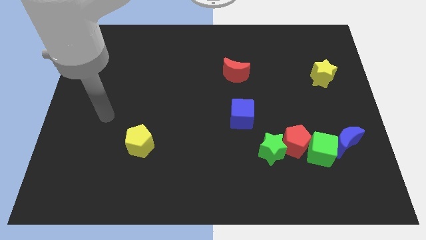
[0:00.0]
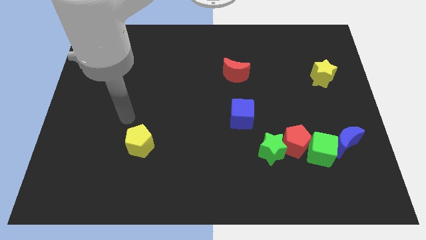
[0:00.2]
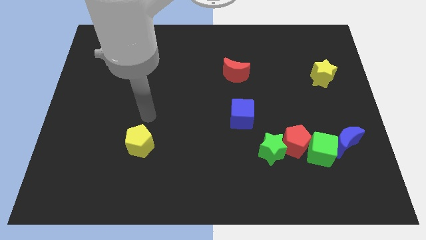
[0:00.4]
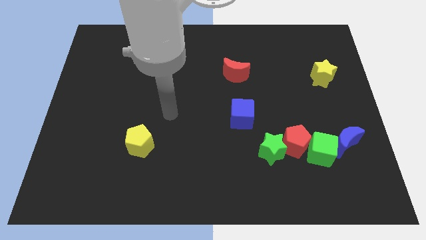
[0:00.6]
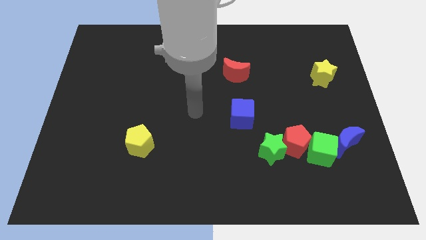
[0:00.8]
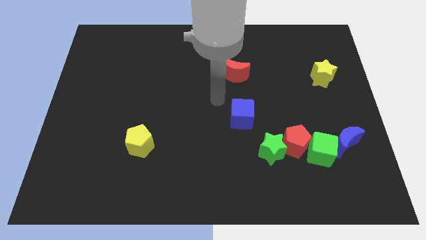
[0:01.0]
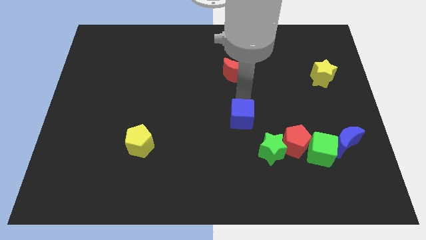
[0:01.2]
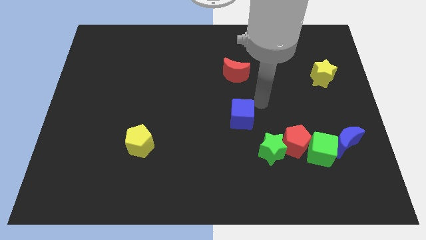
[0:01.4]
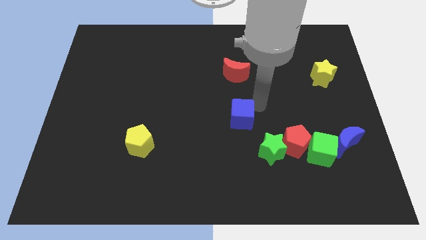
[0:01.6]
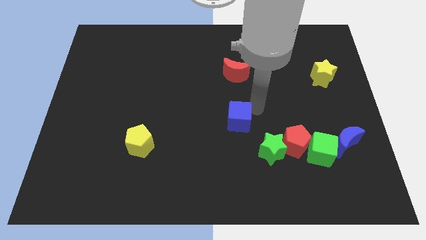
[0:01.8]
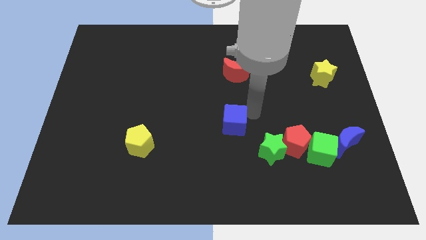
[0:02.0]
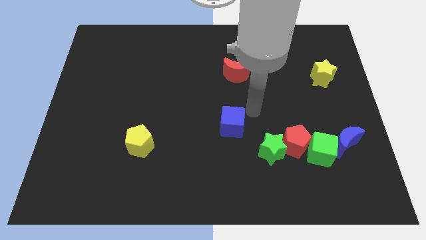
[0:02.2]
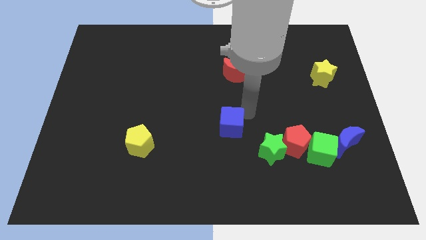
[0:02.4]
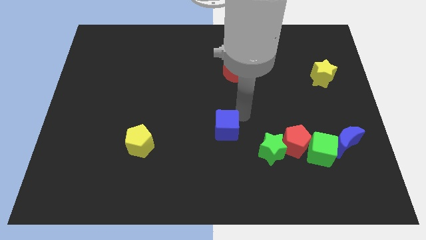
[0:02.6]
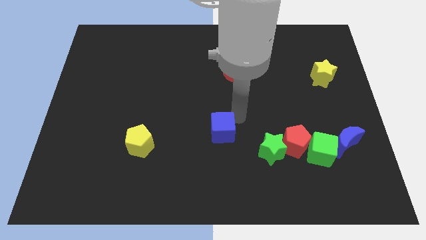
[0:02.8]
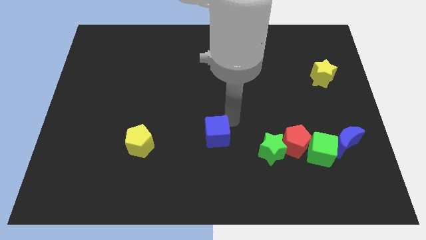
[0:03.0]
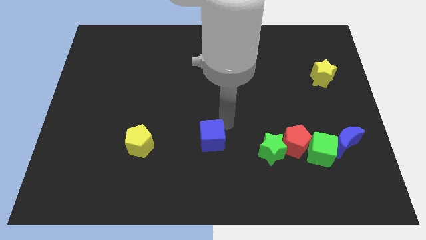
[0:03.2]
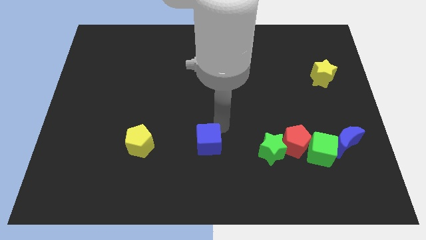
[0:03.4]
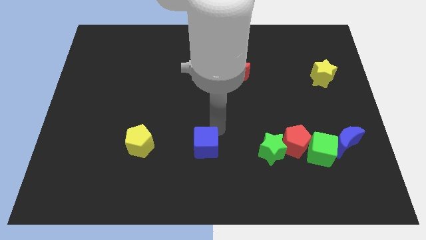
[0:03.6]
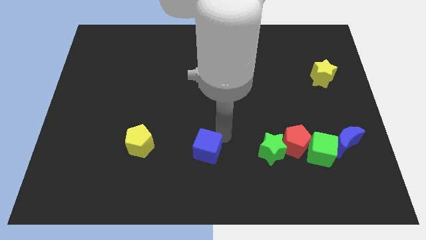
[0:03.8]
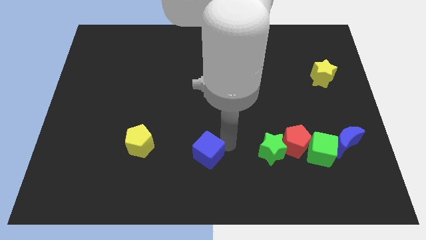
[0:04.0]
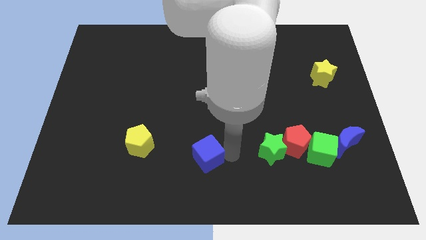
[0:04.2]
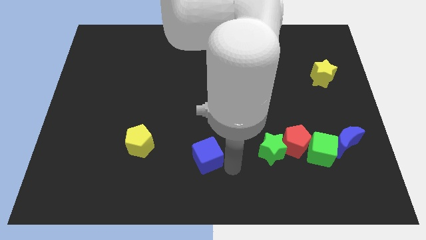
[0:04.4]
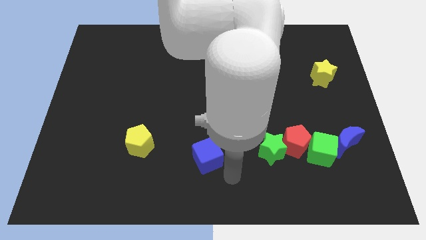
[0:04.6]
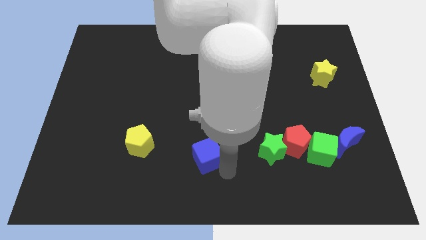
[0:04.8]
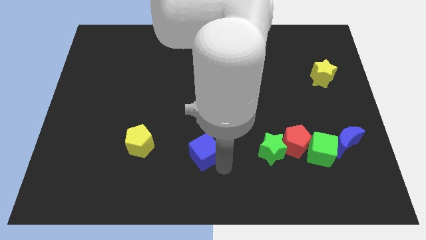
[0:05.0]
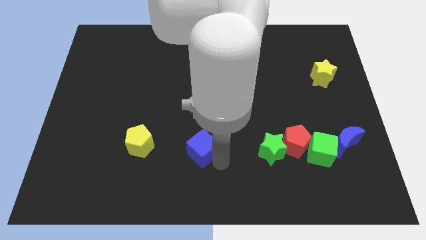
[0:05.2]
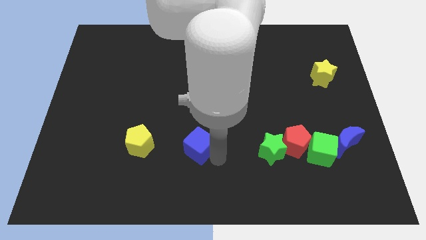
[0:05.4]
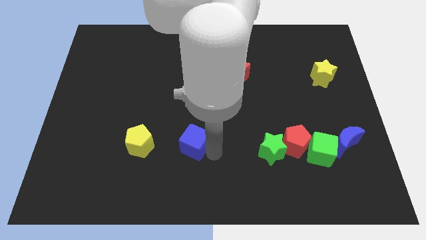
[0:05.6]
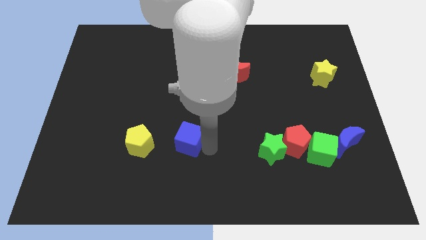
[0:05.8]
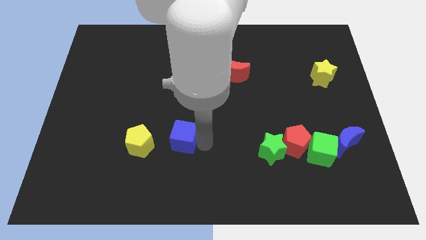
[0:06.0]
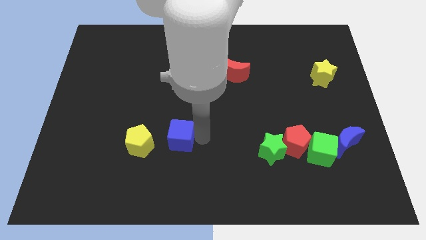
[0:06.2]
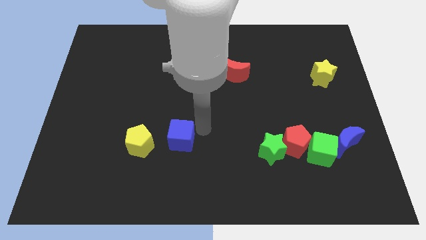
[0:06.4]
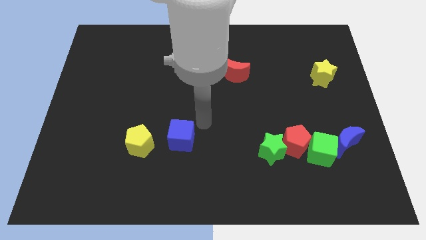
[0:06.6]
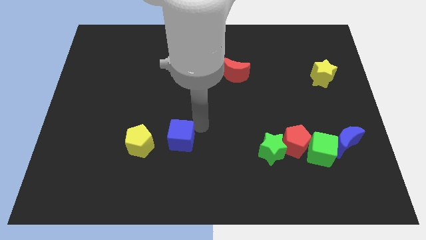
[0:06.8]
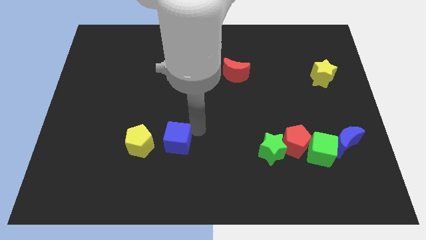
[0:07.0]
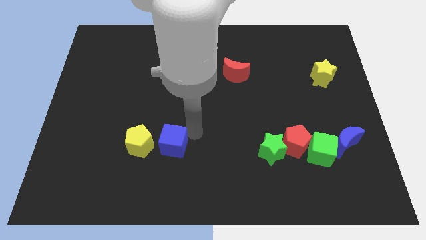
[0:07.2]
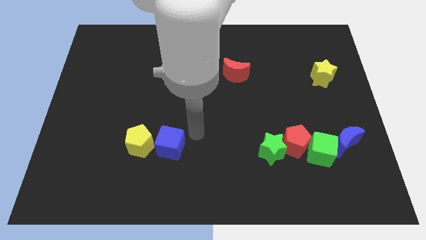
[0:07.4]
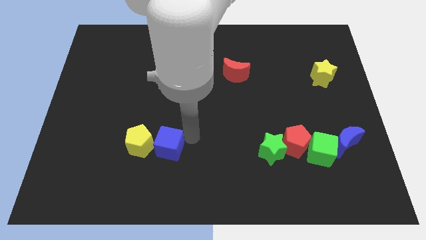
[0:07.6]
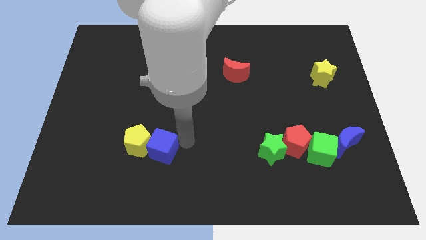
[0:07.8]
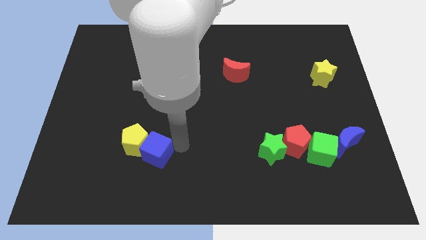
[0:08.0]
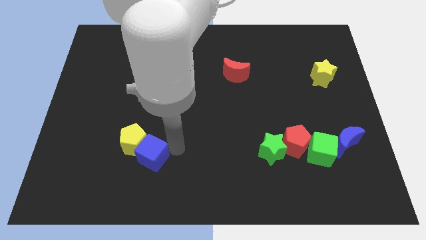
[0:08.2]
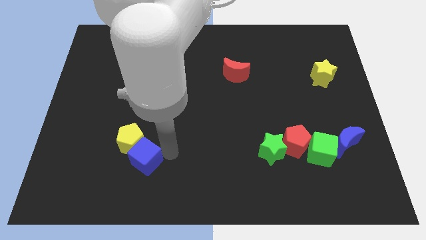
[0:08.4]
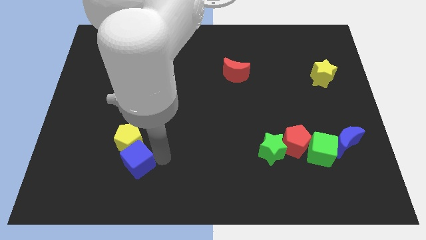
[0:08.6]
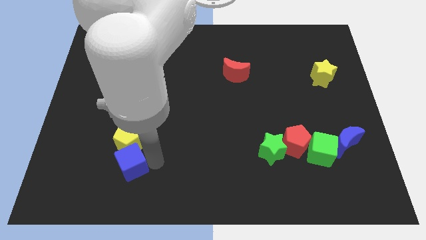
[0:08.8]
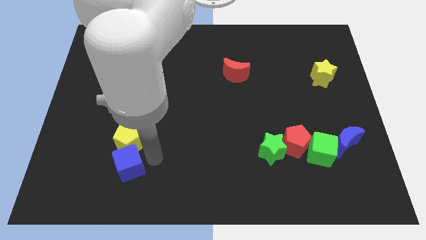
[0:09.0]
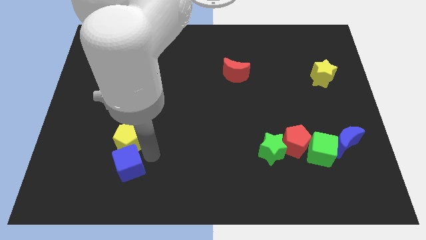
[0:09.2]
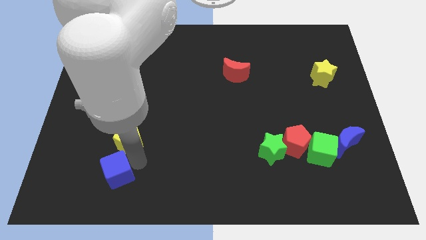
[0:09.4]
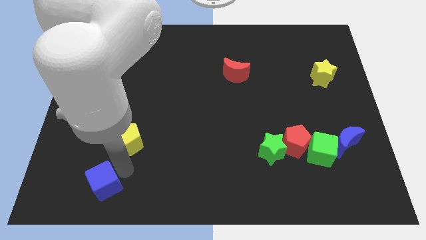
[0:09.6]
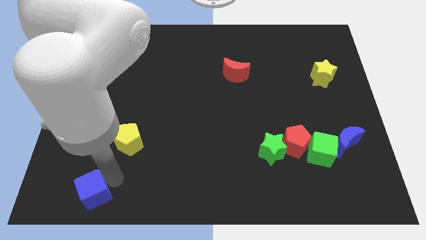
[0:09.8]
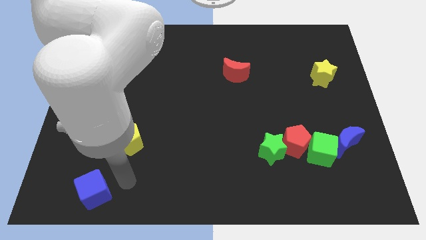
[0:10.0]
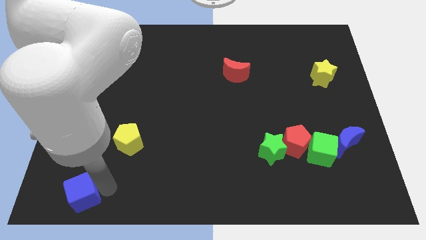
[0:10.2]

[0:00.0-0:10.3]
push the blue cube to the bottom left of the board

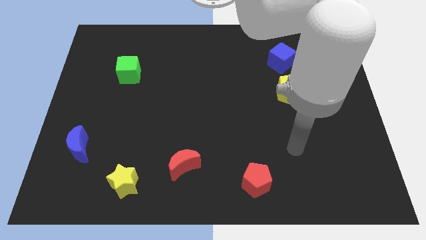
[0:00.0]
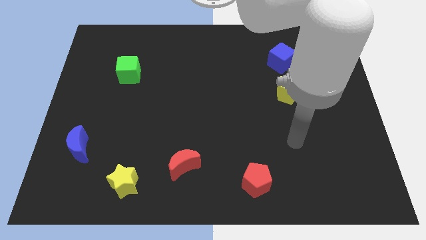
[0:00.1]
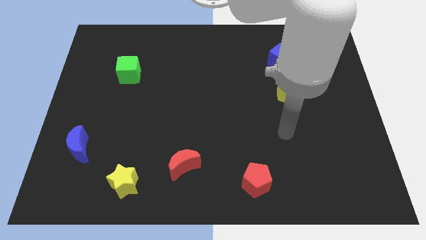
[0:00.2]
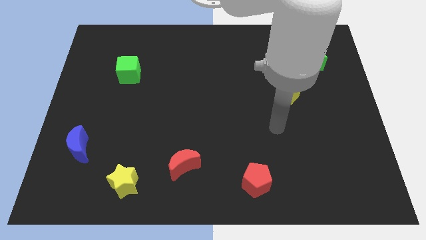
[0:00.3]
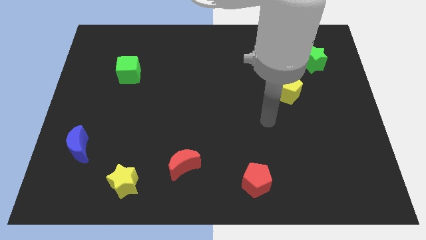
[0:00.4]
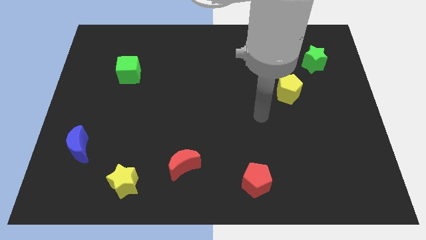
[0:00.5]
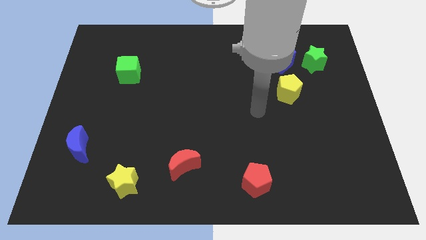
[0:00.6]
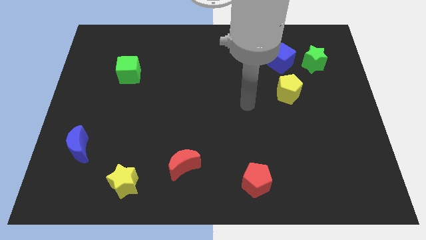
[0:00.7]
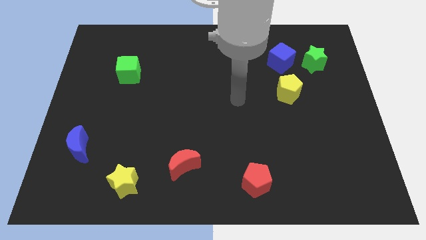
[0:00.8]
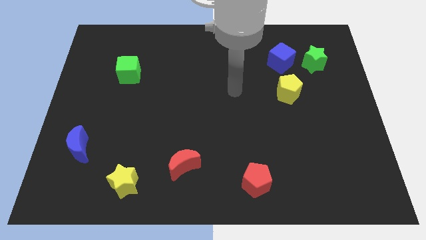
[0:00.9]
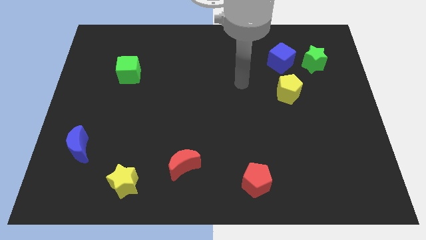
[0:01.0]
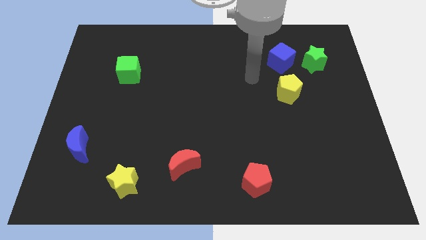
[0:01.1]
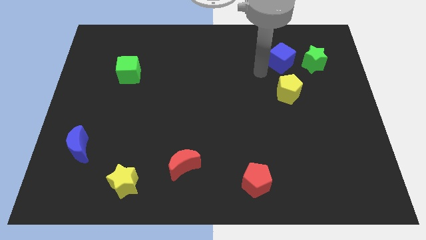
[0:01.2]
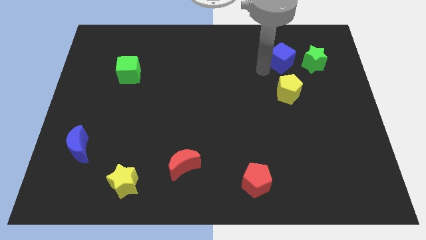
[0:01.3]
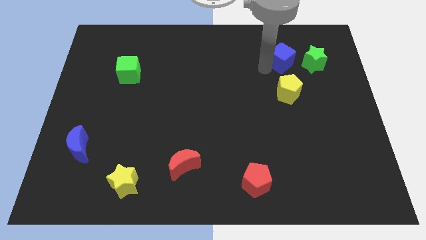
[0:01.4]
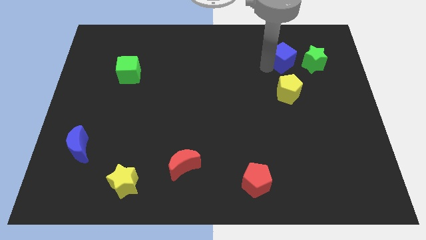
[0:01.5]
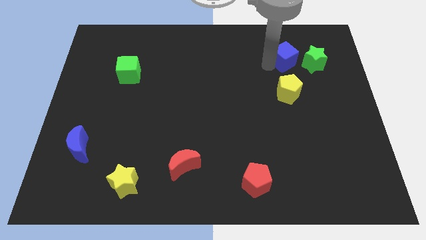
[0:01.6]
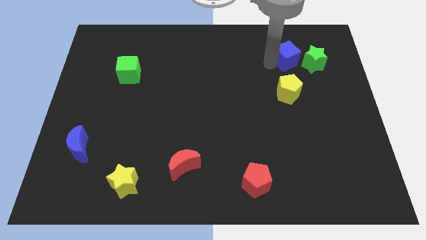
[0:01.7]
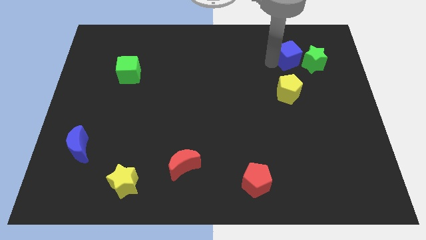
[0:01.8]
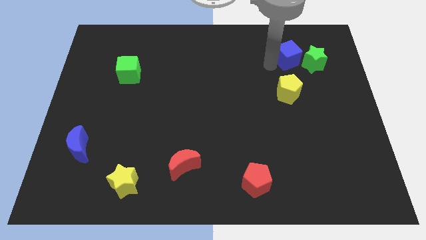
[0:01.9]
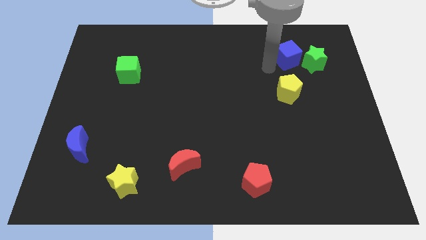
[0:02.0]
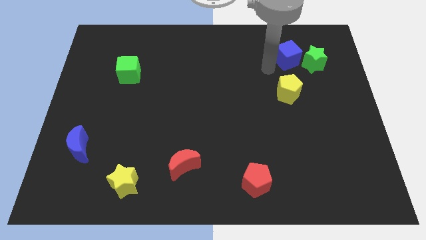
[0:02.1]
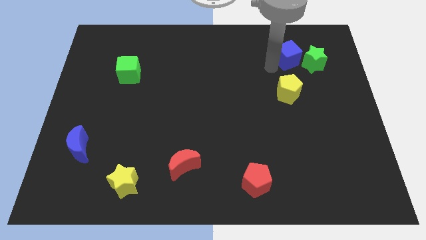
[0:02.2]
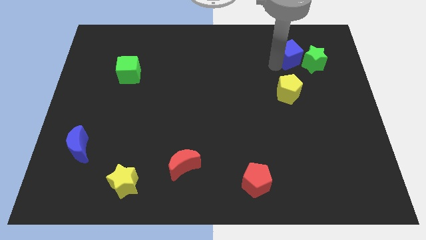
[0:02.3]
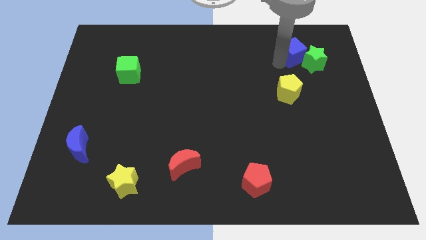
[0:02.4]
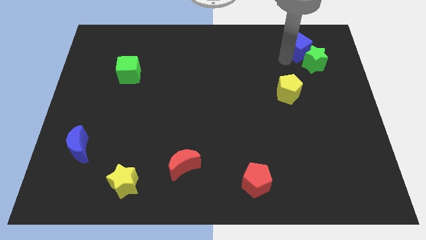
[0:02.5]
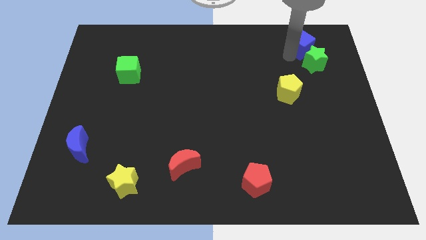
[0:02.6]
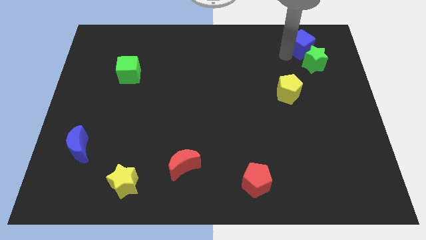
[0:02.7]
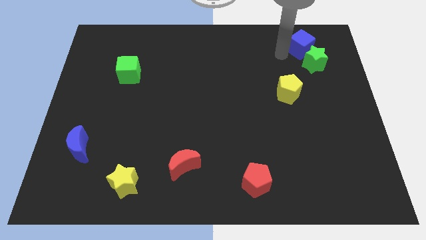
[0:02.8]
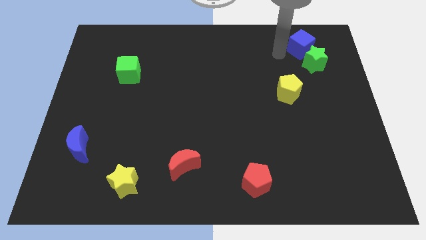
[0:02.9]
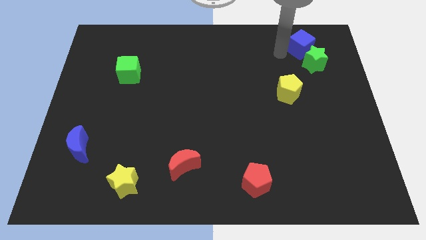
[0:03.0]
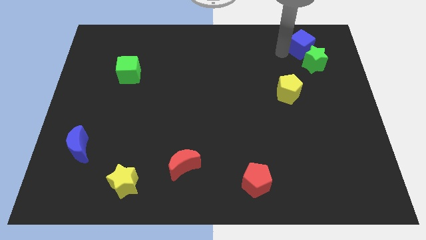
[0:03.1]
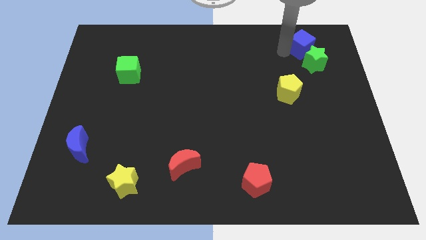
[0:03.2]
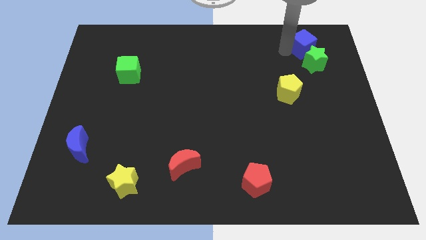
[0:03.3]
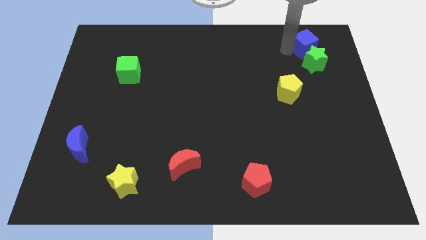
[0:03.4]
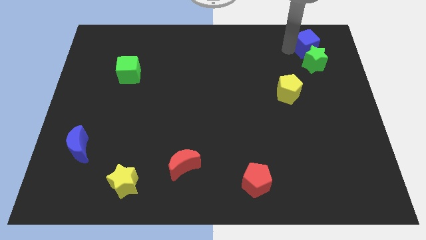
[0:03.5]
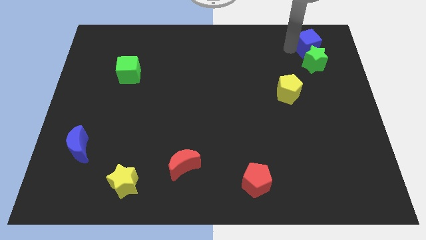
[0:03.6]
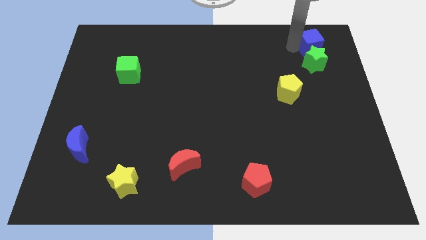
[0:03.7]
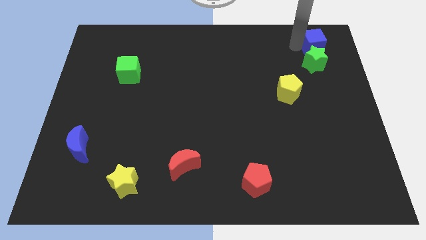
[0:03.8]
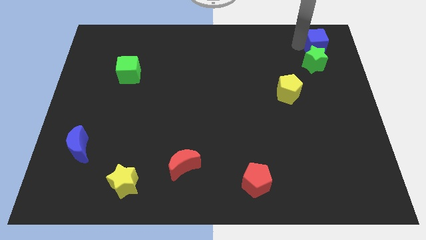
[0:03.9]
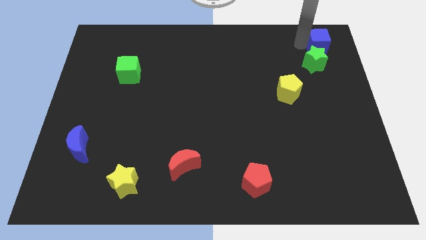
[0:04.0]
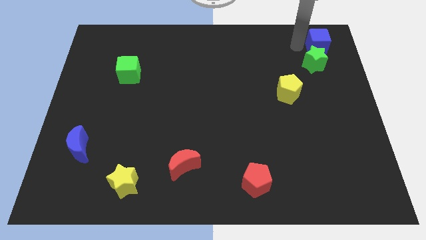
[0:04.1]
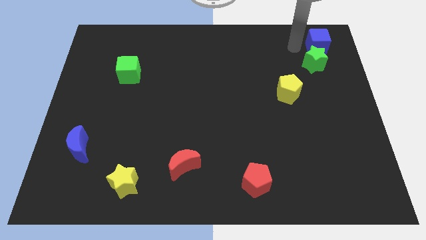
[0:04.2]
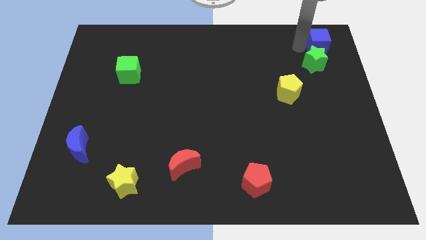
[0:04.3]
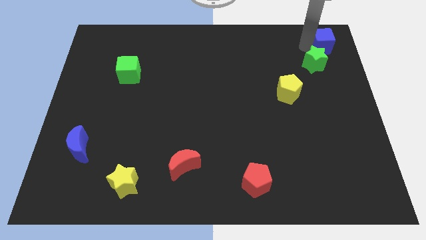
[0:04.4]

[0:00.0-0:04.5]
put the blue cube to the top right
